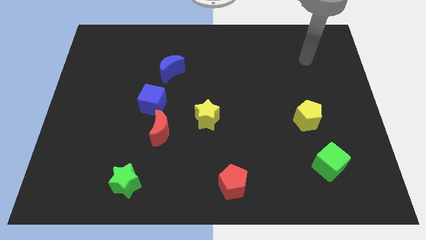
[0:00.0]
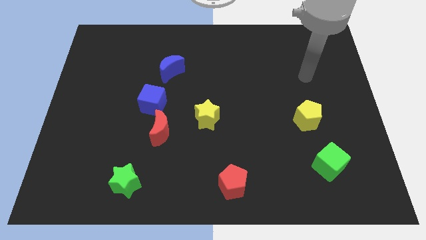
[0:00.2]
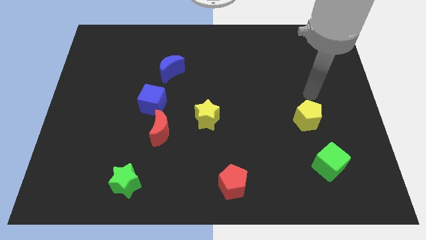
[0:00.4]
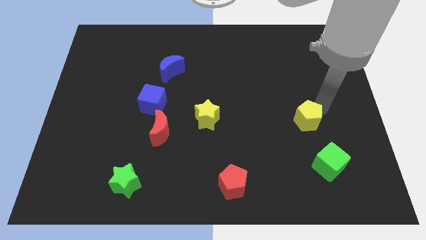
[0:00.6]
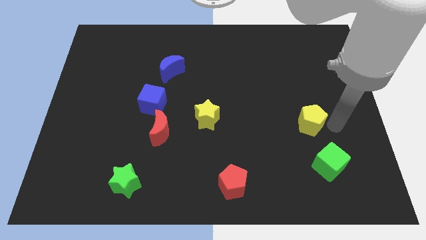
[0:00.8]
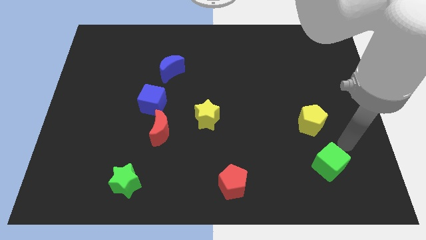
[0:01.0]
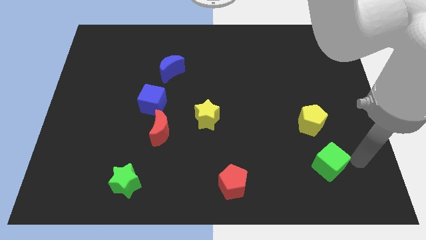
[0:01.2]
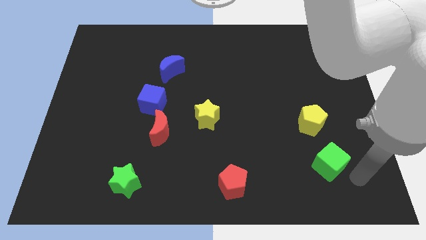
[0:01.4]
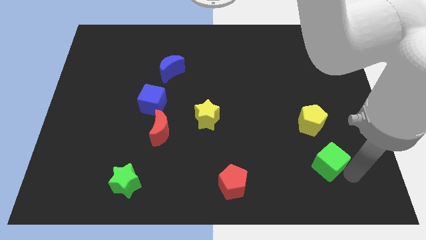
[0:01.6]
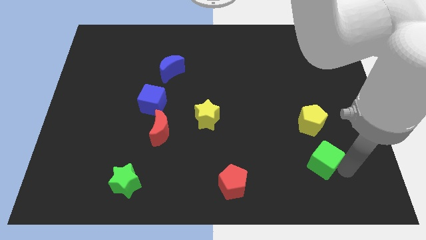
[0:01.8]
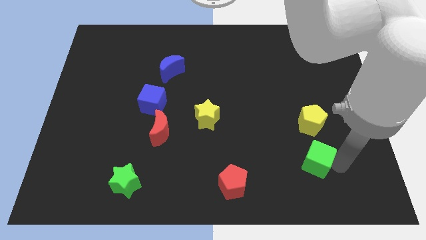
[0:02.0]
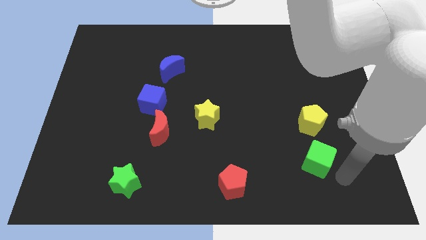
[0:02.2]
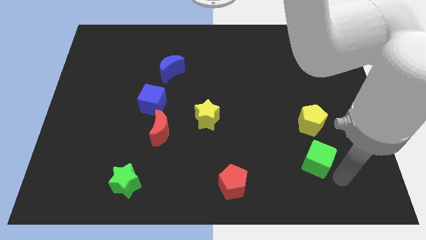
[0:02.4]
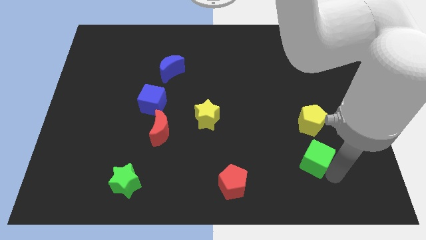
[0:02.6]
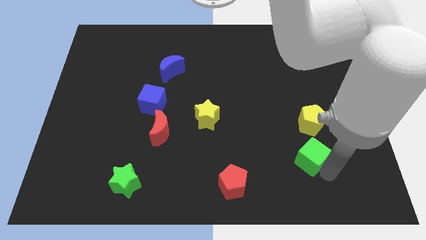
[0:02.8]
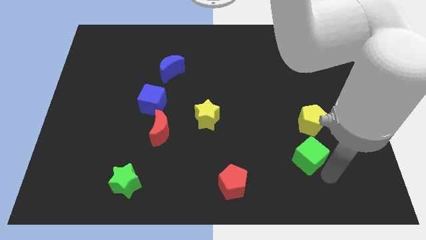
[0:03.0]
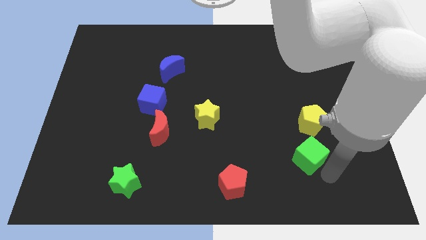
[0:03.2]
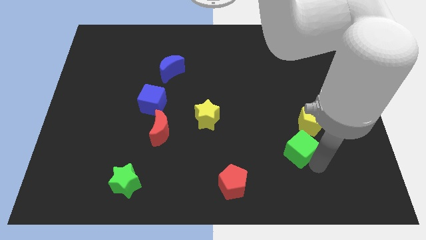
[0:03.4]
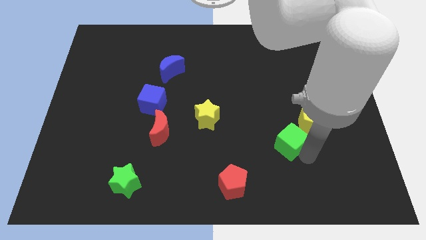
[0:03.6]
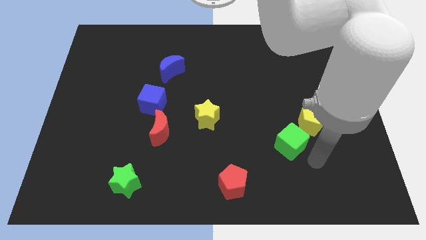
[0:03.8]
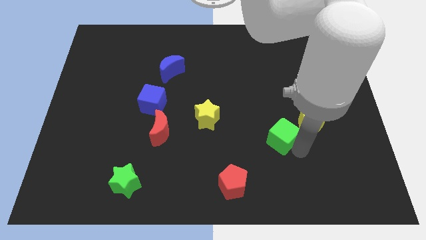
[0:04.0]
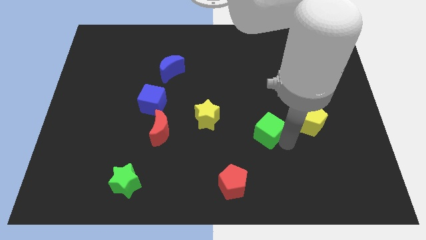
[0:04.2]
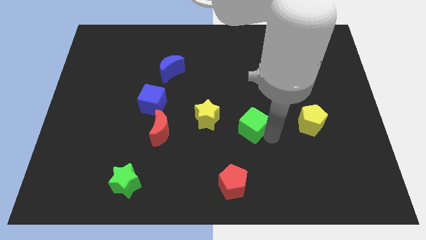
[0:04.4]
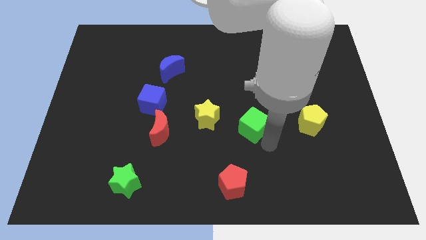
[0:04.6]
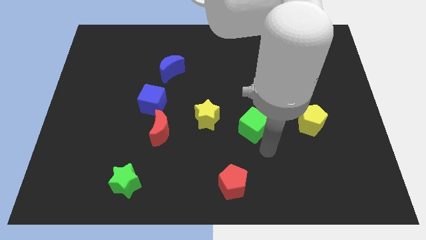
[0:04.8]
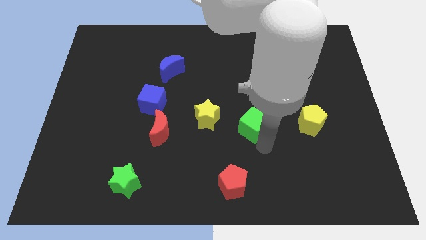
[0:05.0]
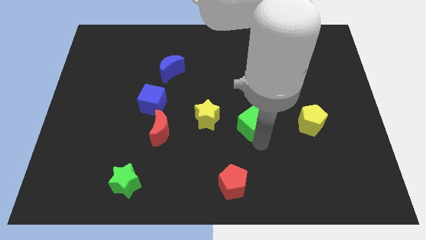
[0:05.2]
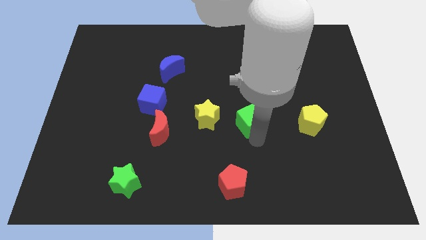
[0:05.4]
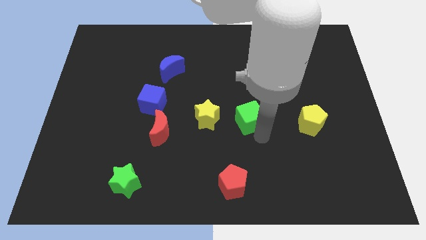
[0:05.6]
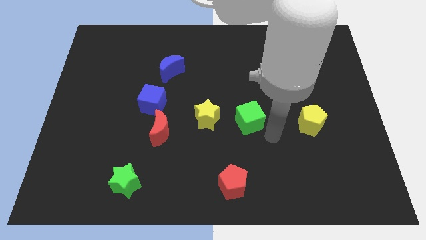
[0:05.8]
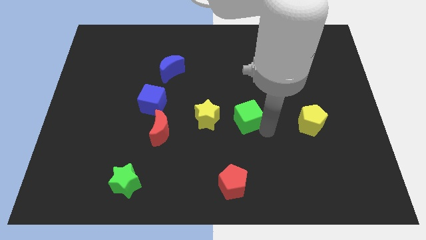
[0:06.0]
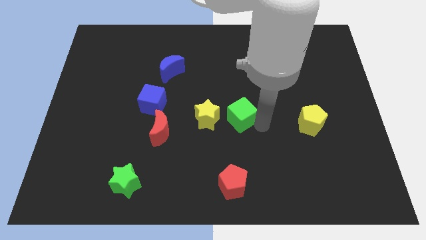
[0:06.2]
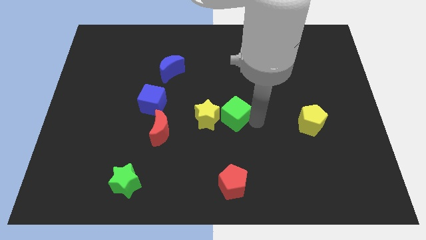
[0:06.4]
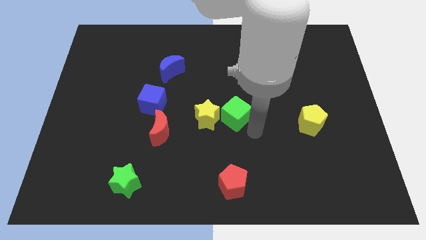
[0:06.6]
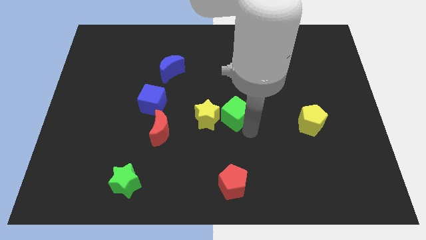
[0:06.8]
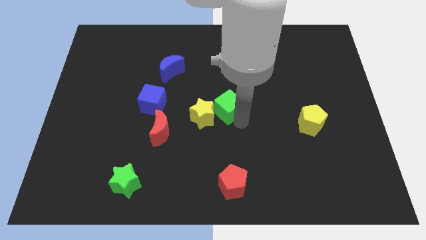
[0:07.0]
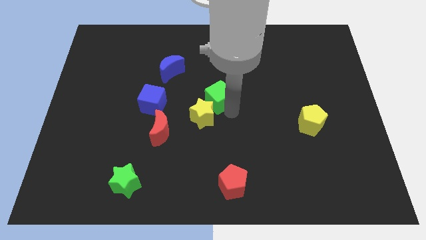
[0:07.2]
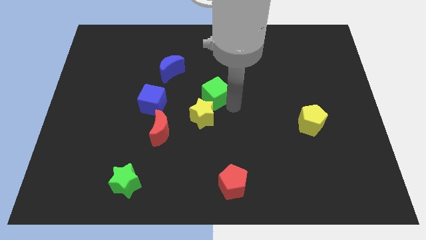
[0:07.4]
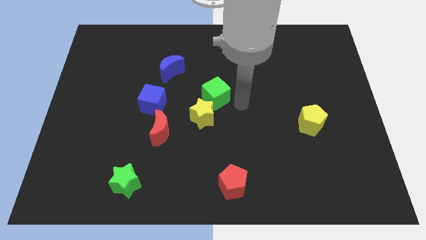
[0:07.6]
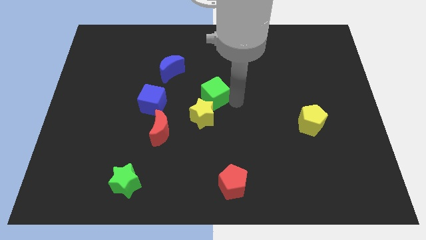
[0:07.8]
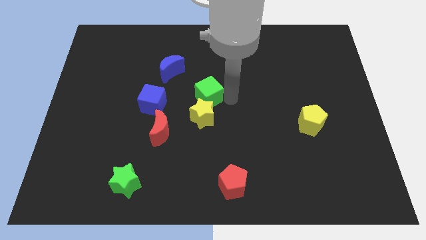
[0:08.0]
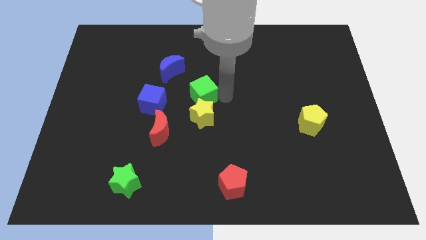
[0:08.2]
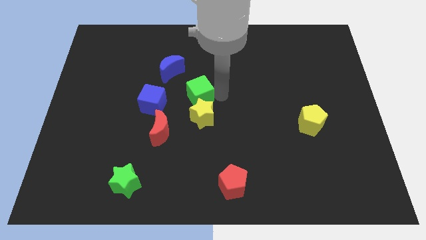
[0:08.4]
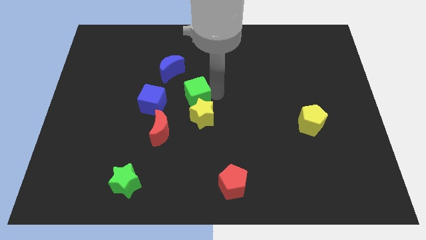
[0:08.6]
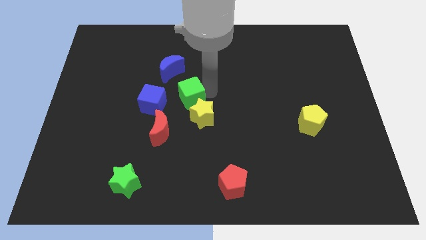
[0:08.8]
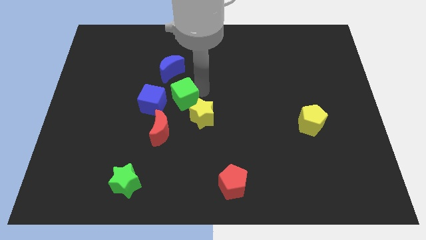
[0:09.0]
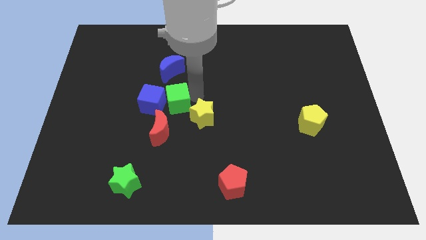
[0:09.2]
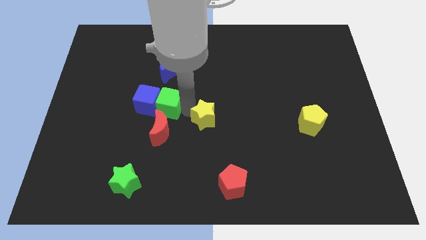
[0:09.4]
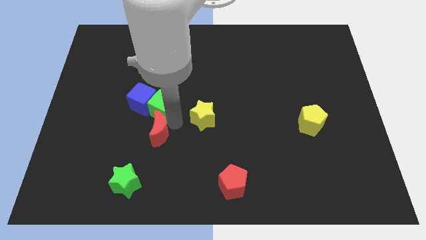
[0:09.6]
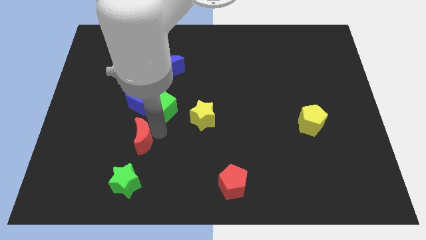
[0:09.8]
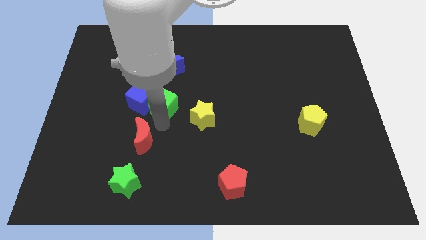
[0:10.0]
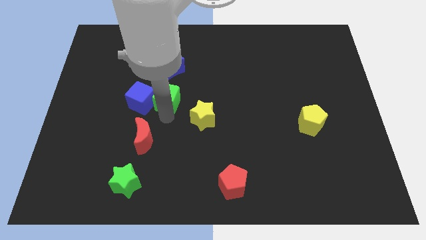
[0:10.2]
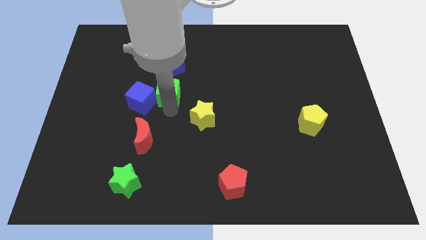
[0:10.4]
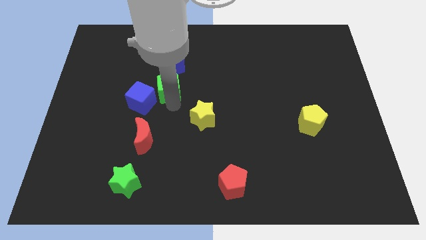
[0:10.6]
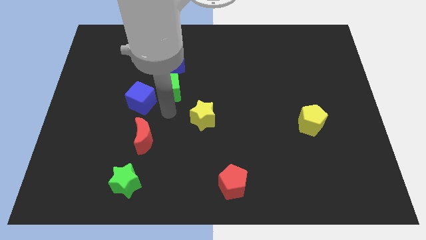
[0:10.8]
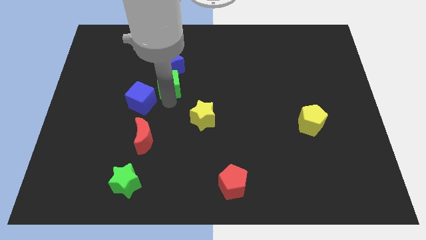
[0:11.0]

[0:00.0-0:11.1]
push the green cube to the blue moon

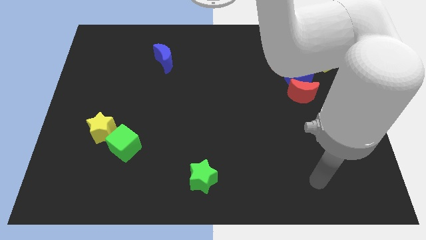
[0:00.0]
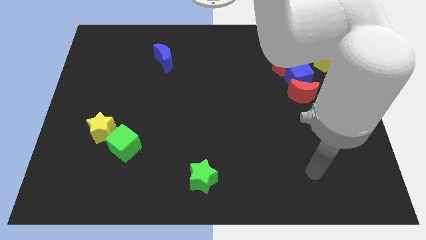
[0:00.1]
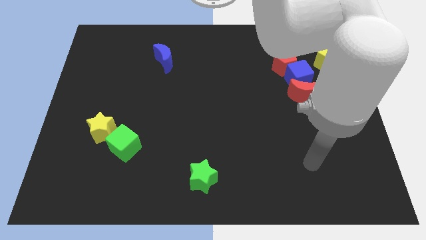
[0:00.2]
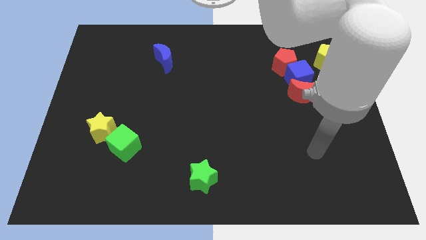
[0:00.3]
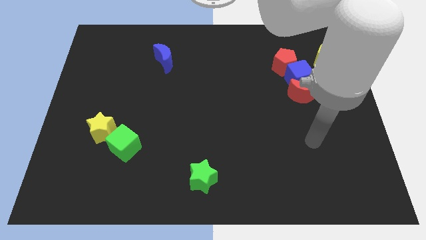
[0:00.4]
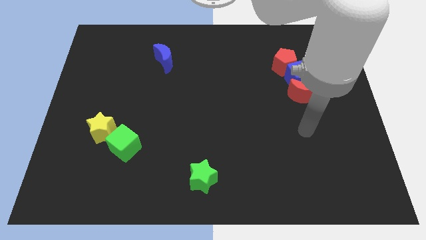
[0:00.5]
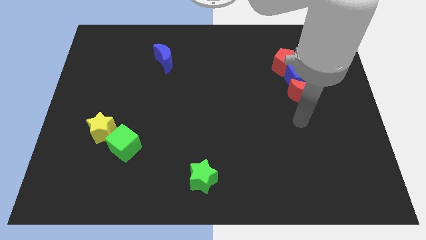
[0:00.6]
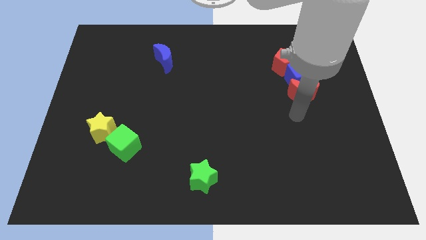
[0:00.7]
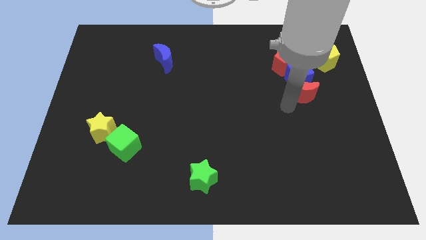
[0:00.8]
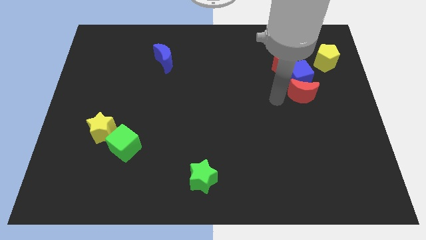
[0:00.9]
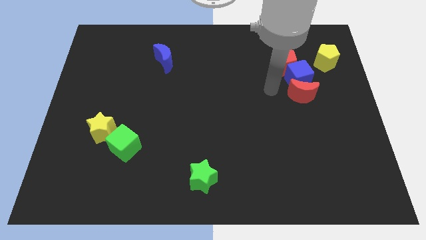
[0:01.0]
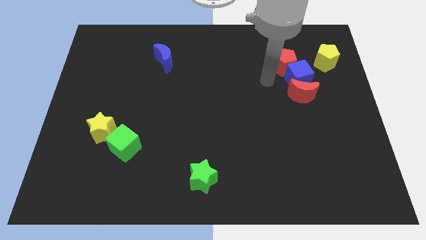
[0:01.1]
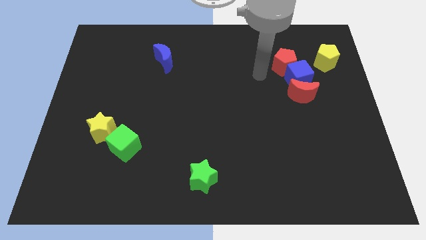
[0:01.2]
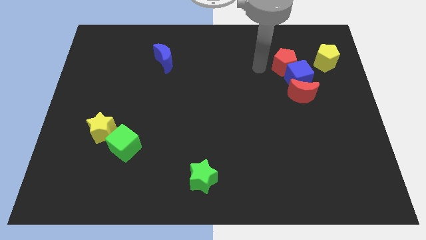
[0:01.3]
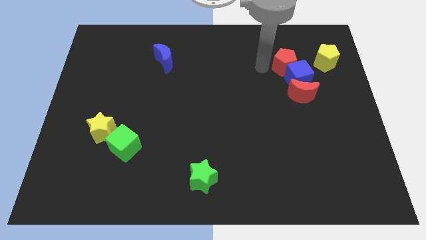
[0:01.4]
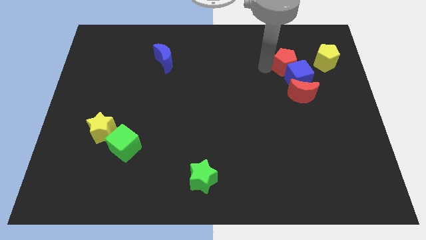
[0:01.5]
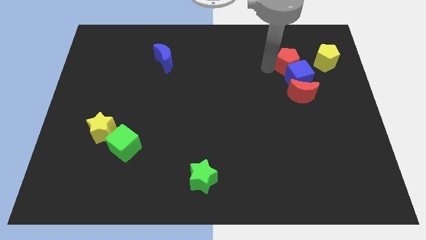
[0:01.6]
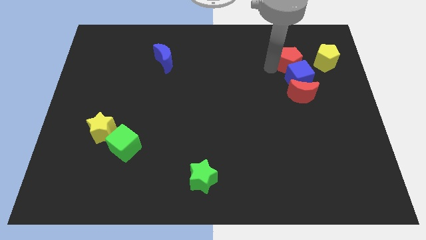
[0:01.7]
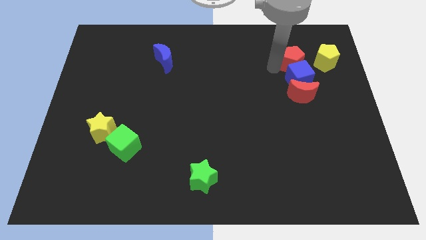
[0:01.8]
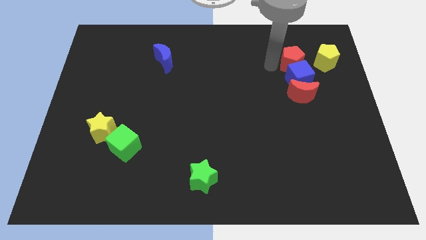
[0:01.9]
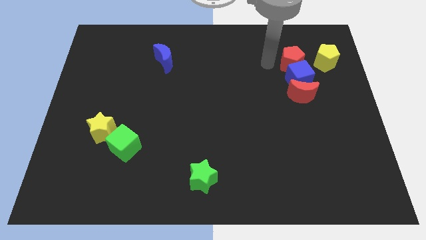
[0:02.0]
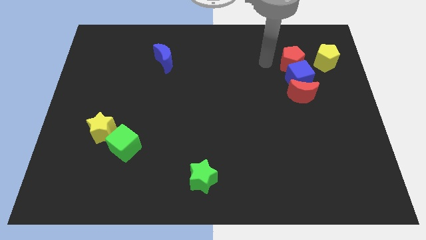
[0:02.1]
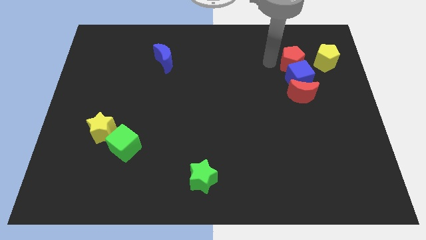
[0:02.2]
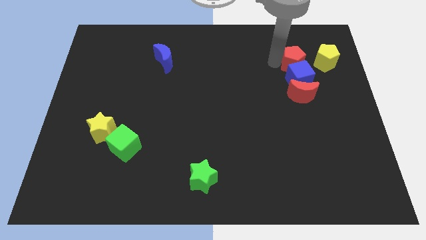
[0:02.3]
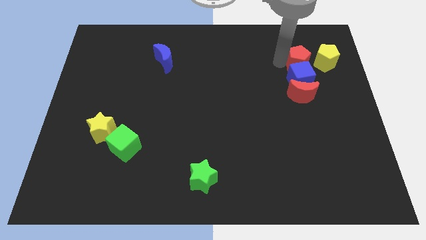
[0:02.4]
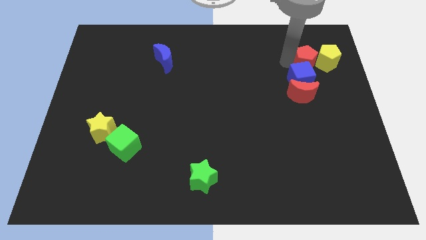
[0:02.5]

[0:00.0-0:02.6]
push the red pentagon to the yellow pentagon
